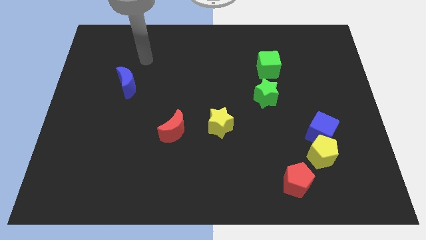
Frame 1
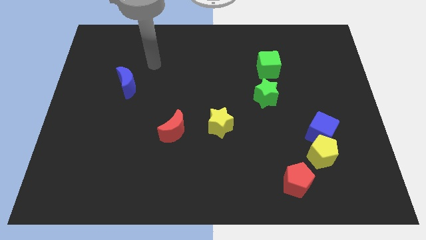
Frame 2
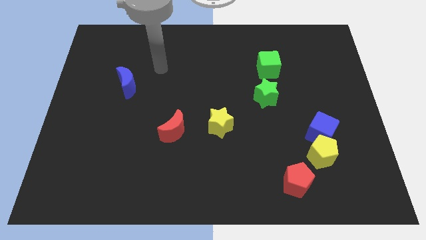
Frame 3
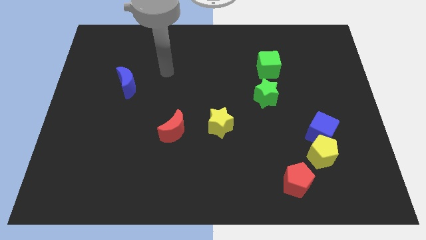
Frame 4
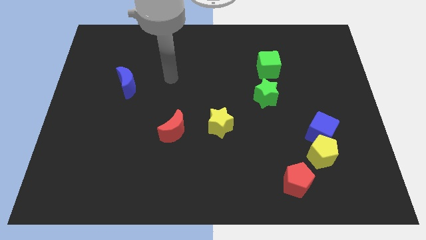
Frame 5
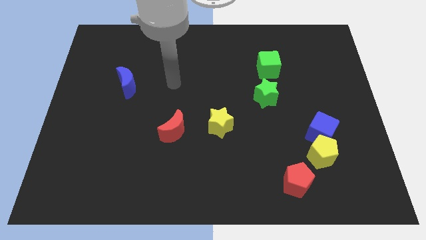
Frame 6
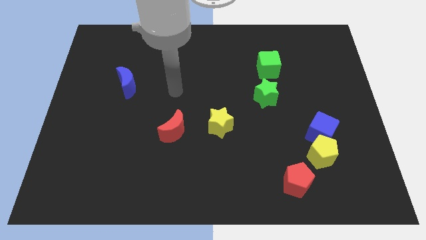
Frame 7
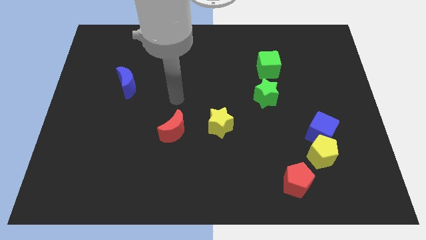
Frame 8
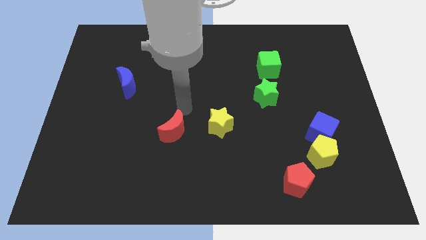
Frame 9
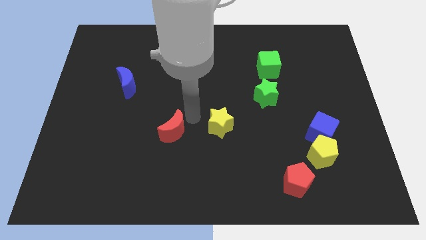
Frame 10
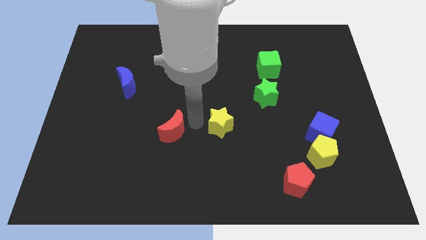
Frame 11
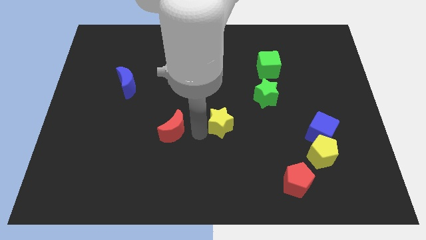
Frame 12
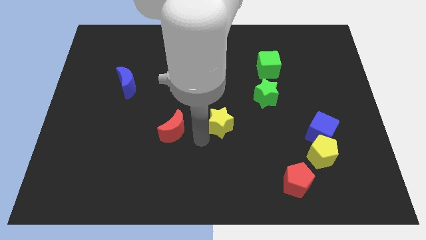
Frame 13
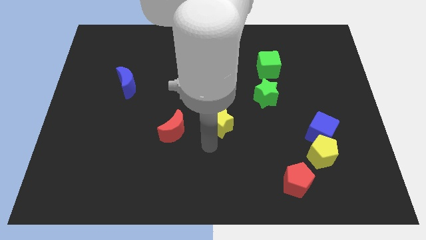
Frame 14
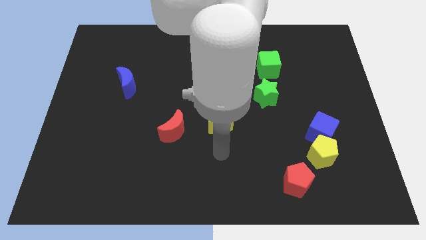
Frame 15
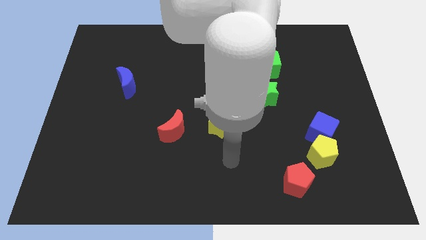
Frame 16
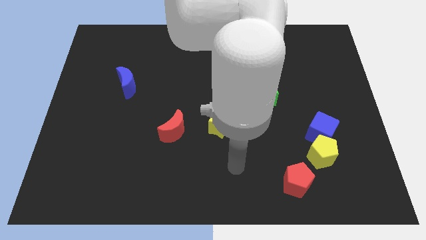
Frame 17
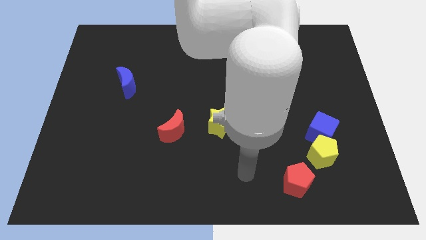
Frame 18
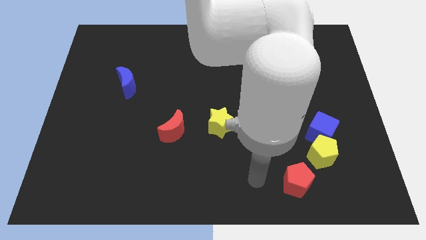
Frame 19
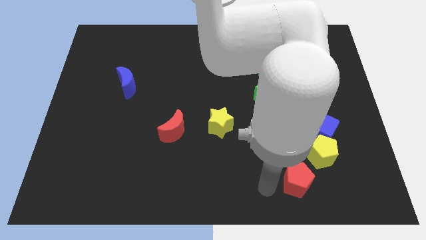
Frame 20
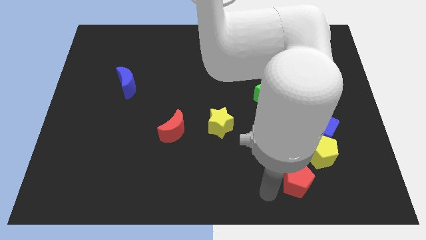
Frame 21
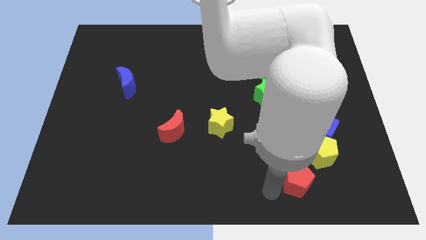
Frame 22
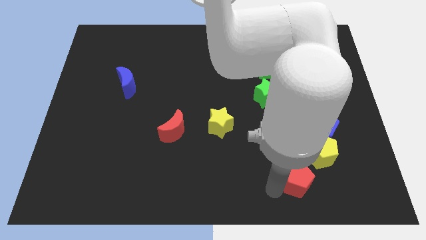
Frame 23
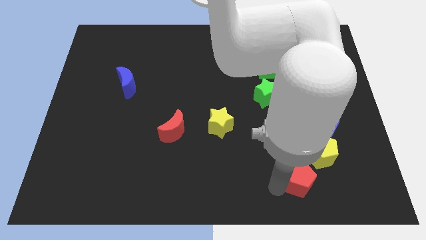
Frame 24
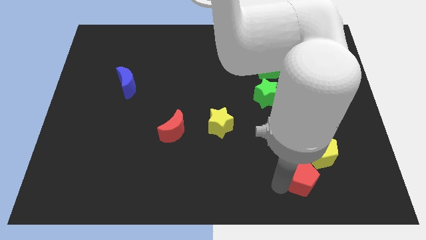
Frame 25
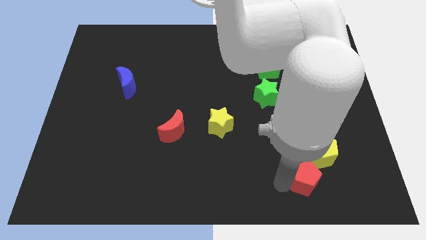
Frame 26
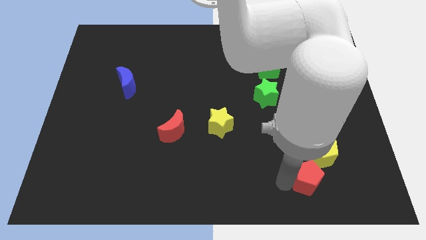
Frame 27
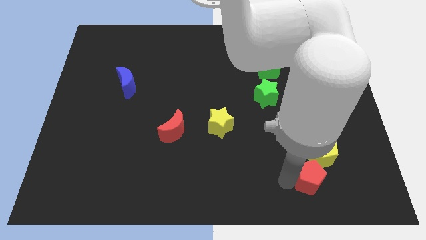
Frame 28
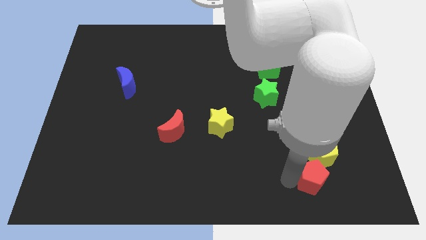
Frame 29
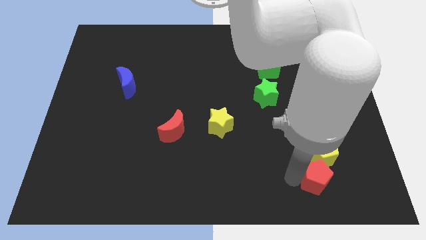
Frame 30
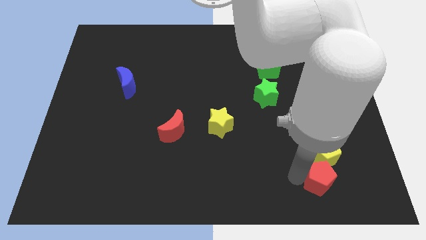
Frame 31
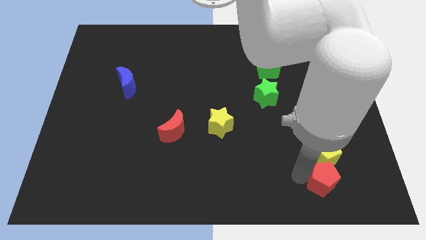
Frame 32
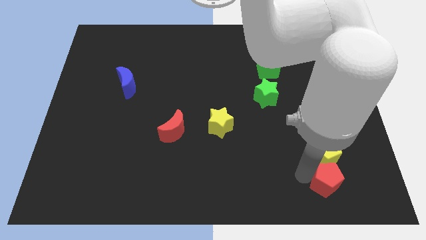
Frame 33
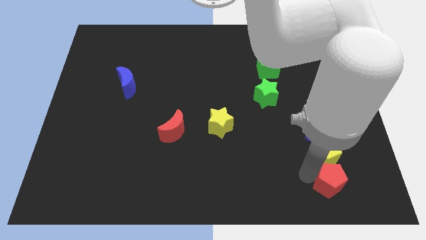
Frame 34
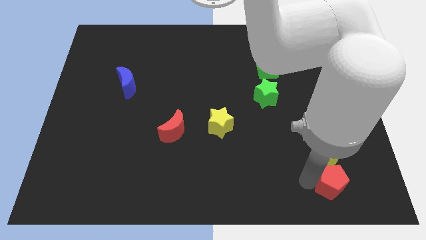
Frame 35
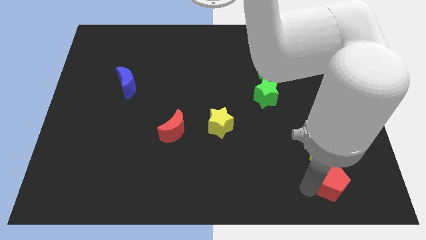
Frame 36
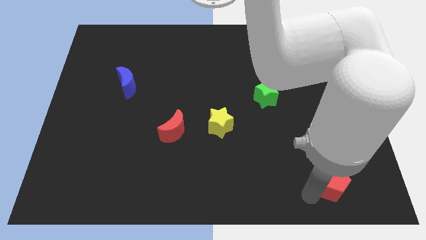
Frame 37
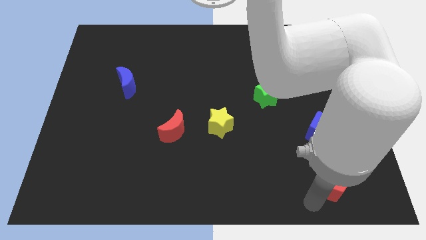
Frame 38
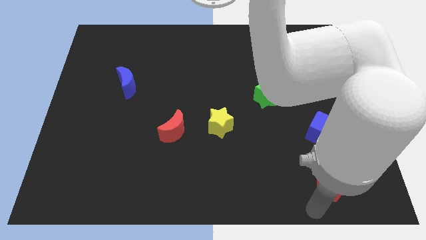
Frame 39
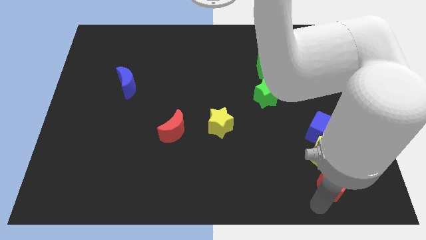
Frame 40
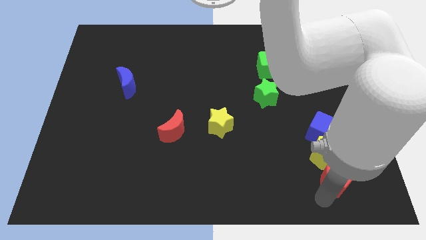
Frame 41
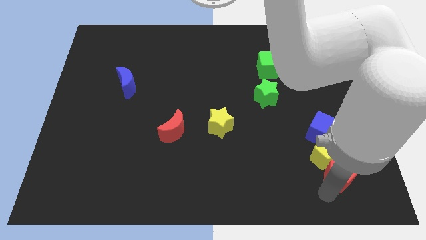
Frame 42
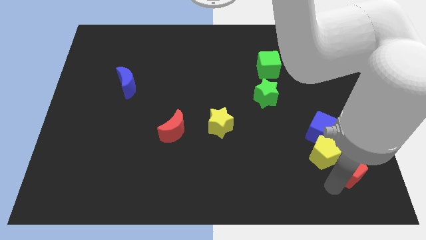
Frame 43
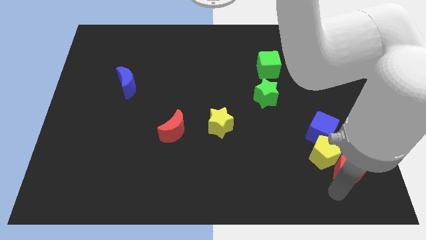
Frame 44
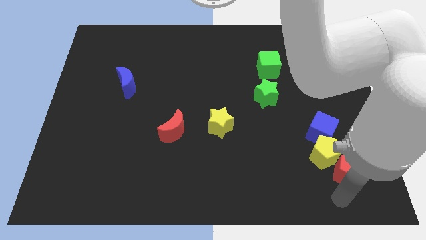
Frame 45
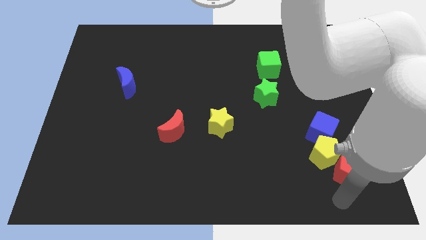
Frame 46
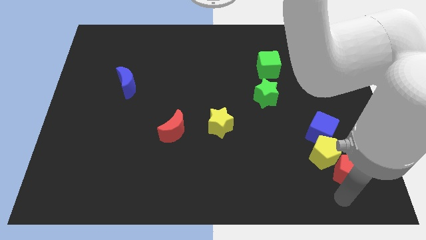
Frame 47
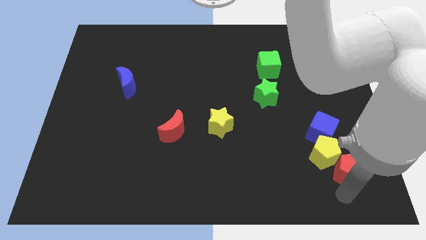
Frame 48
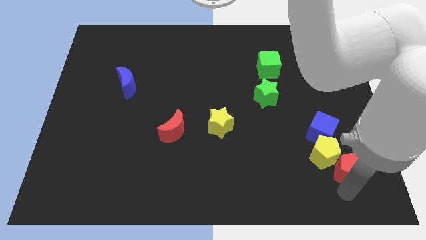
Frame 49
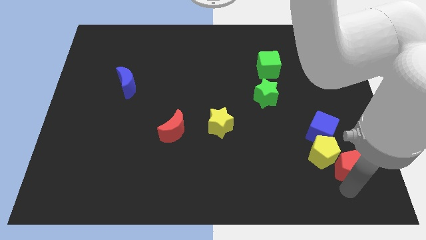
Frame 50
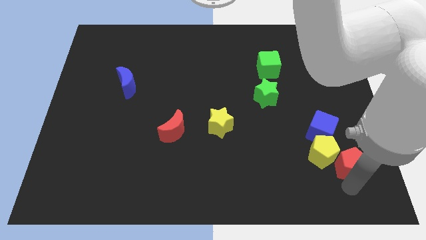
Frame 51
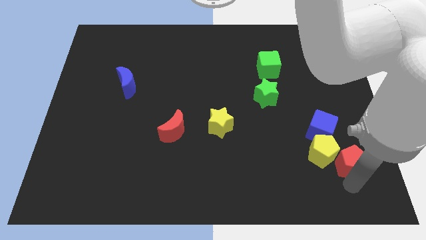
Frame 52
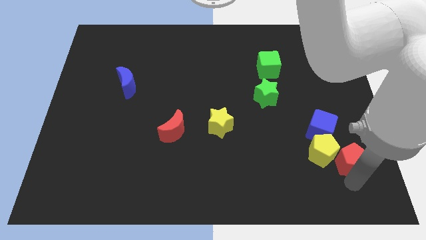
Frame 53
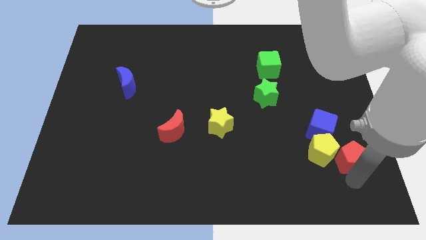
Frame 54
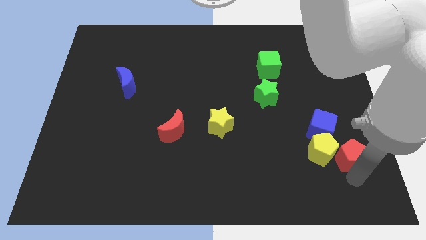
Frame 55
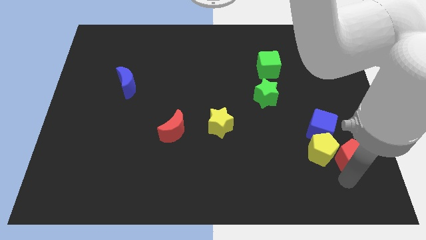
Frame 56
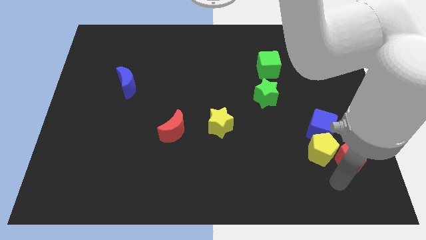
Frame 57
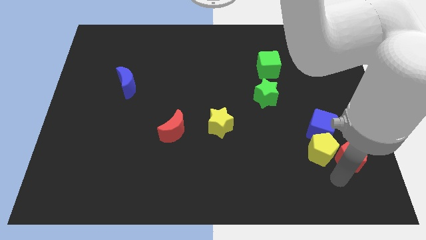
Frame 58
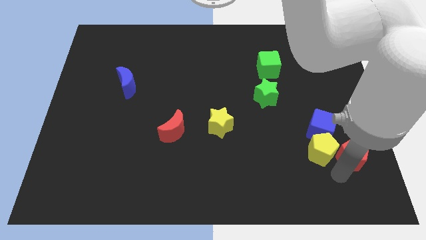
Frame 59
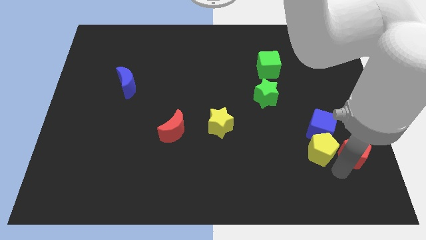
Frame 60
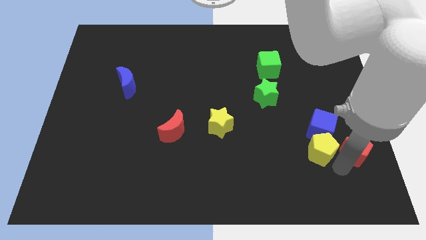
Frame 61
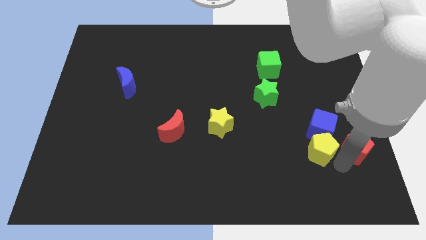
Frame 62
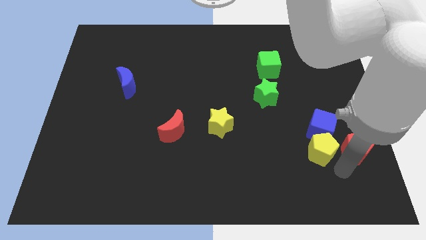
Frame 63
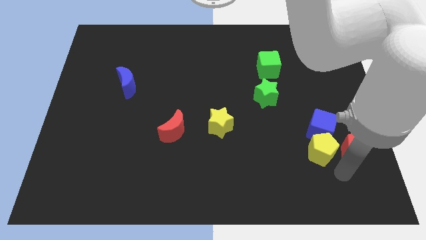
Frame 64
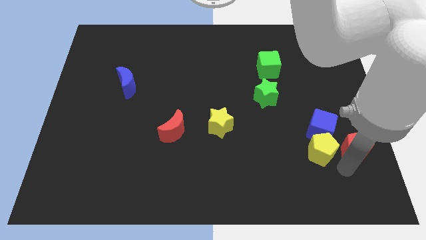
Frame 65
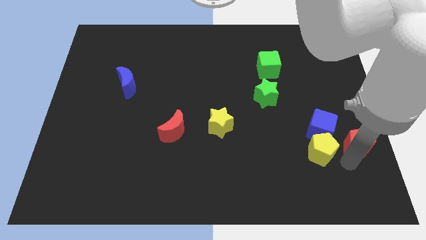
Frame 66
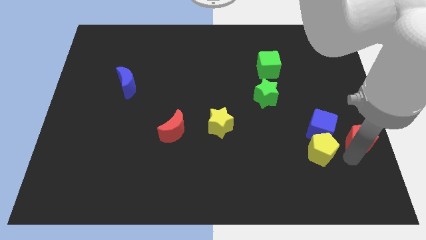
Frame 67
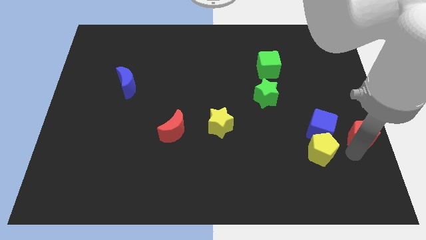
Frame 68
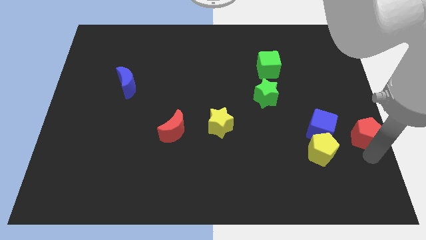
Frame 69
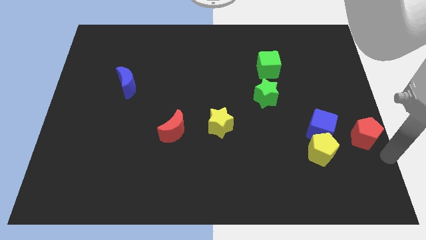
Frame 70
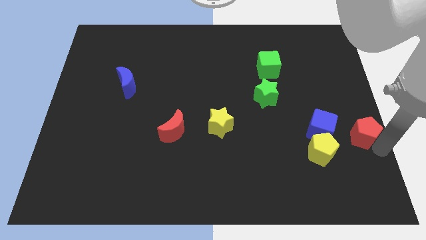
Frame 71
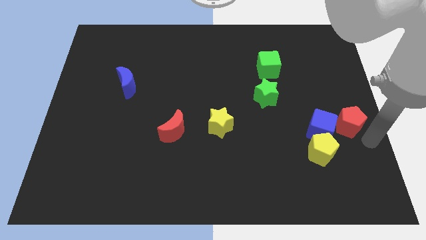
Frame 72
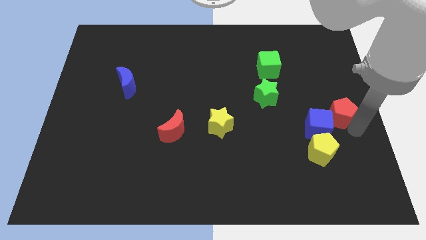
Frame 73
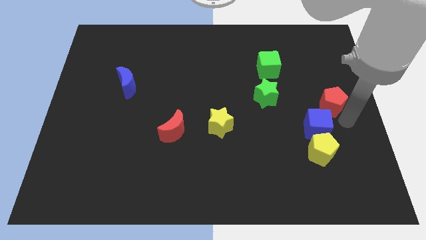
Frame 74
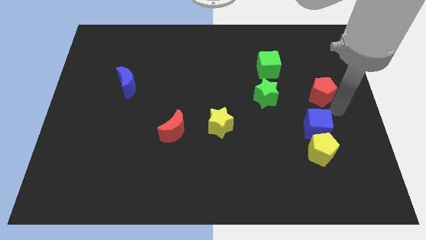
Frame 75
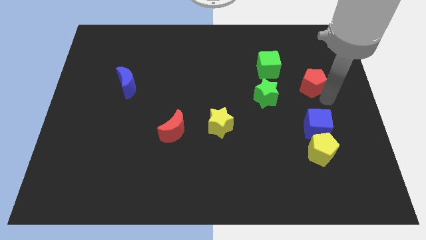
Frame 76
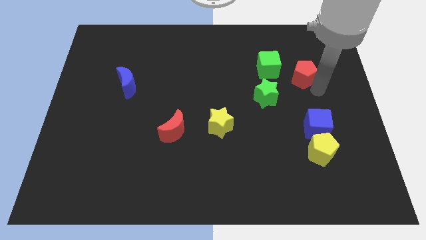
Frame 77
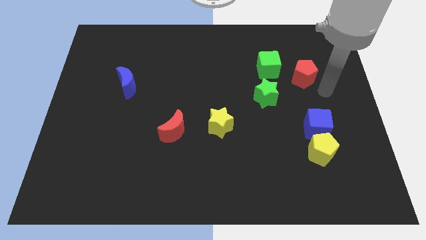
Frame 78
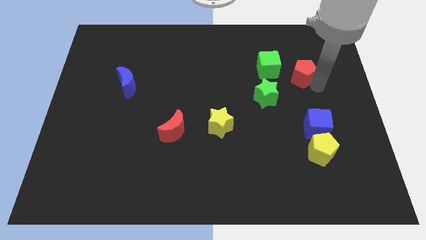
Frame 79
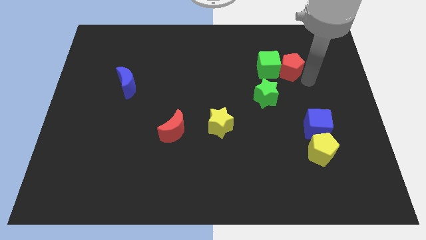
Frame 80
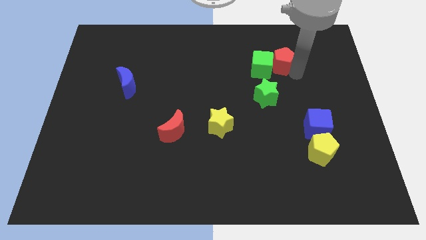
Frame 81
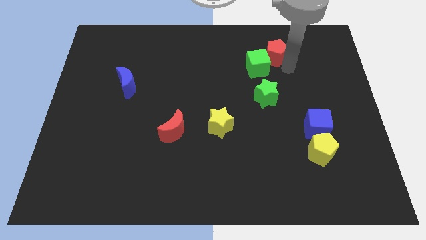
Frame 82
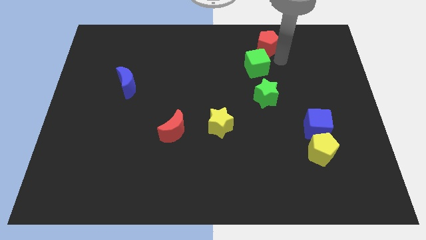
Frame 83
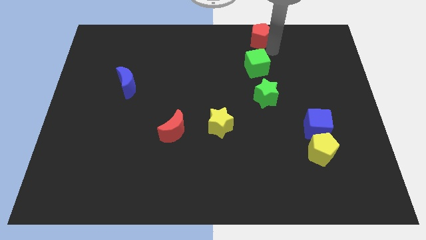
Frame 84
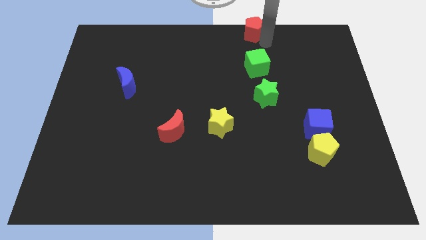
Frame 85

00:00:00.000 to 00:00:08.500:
move the red pentagon to the towards your base
